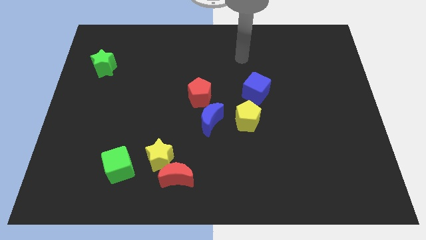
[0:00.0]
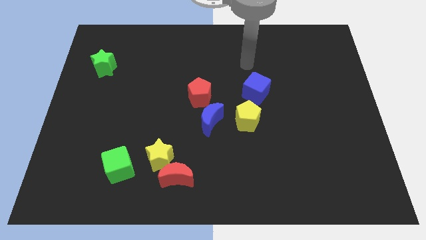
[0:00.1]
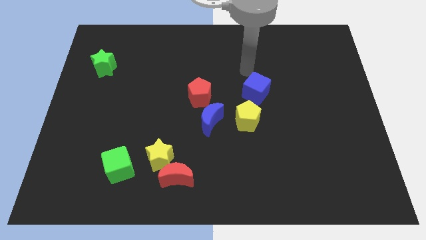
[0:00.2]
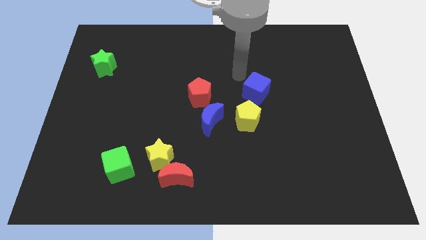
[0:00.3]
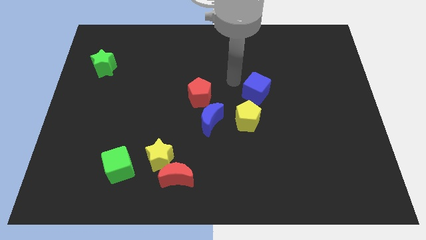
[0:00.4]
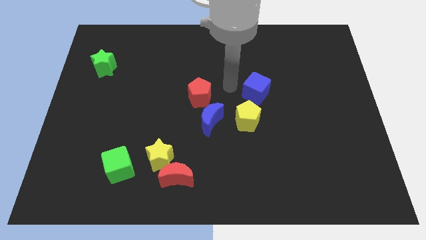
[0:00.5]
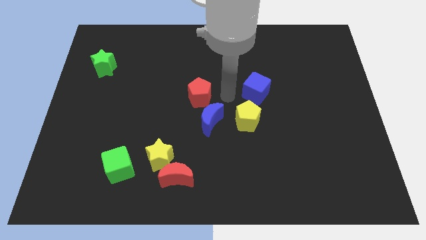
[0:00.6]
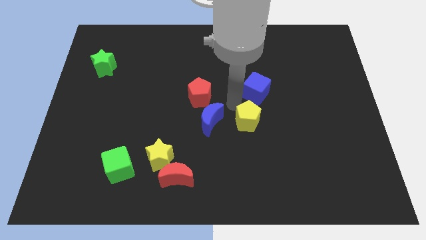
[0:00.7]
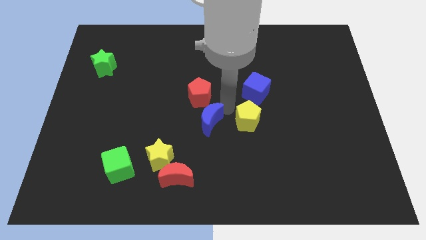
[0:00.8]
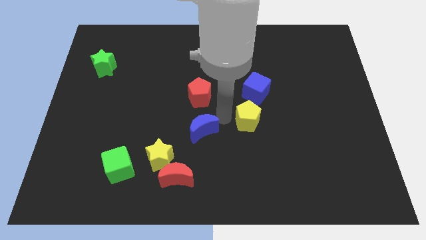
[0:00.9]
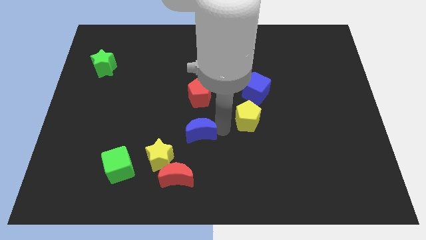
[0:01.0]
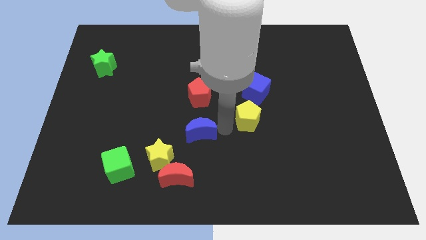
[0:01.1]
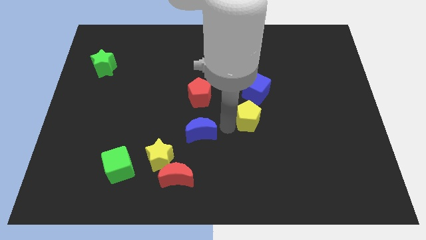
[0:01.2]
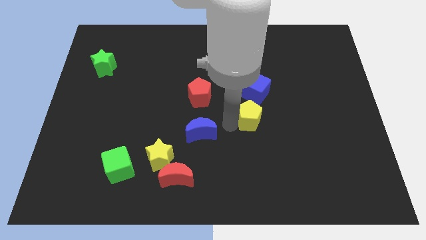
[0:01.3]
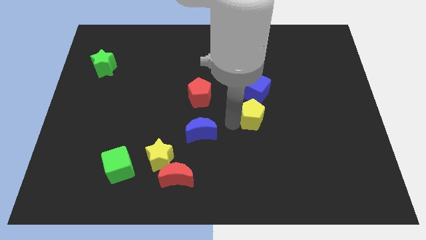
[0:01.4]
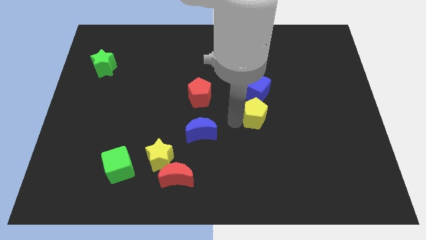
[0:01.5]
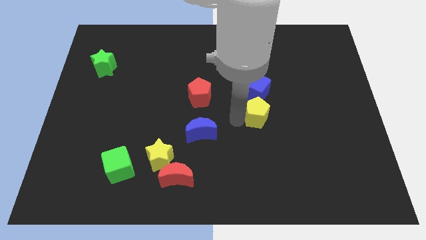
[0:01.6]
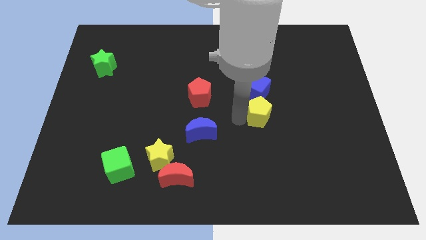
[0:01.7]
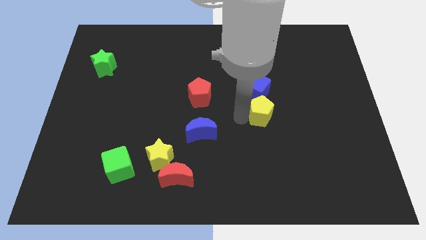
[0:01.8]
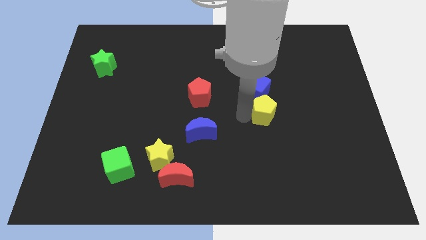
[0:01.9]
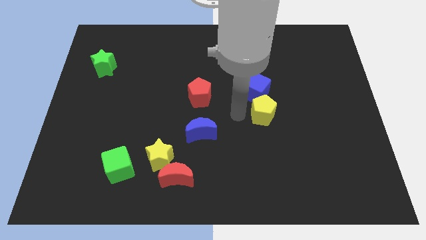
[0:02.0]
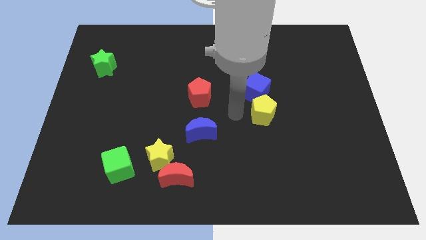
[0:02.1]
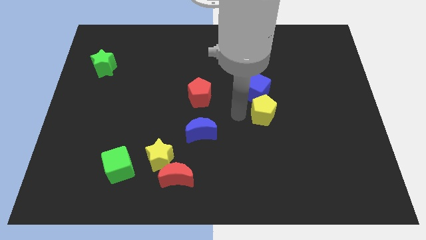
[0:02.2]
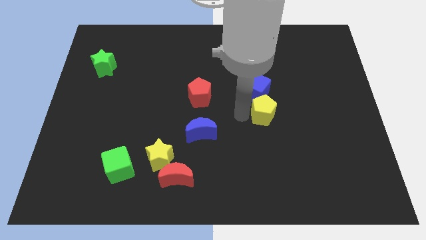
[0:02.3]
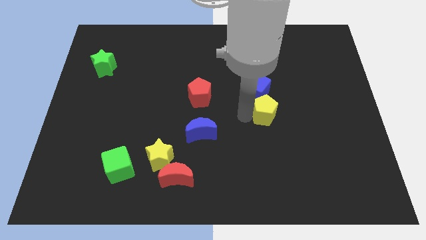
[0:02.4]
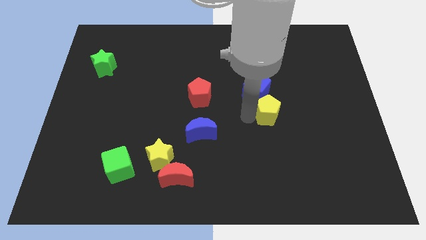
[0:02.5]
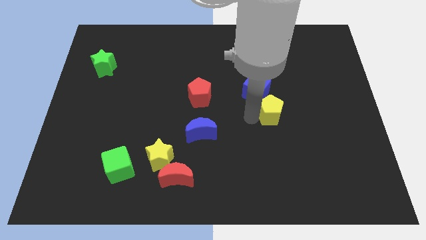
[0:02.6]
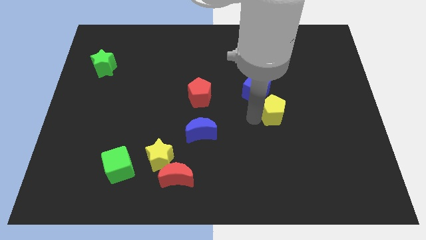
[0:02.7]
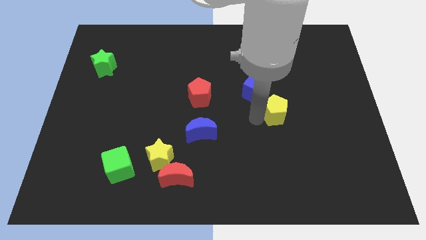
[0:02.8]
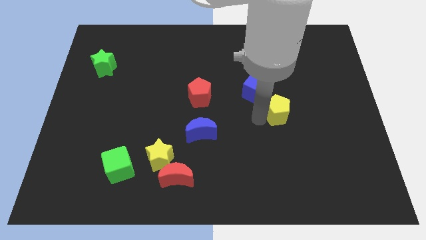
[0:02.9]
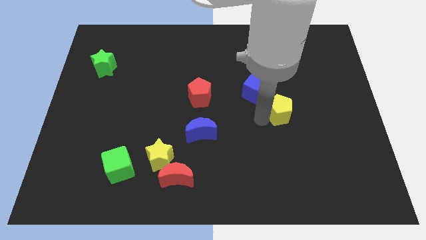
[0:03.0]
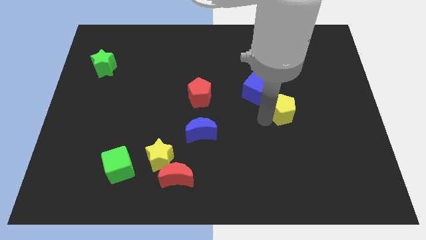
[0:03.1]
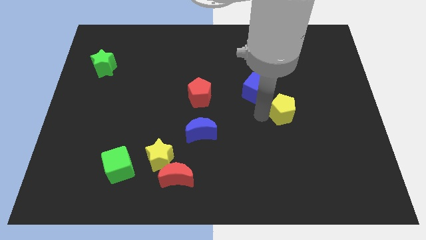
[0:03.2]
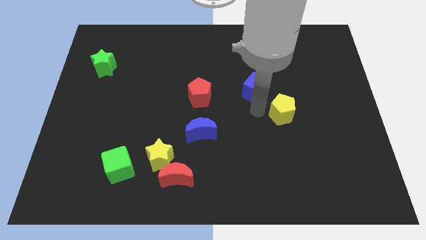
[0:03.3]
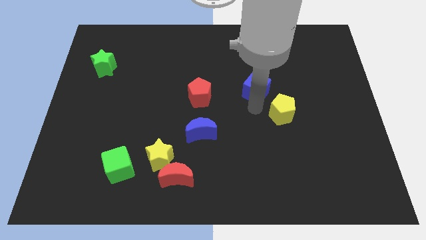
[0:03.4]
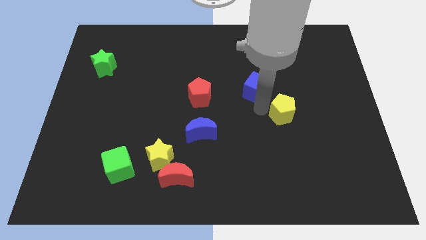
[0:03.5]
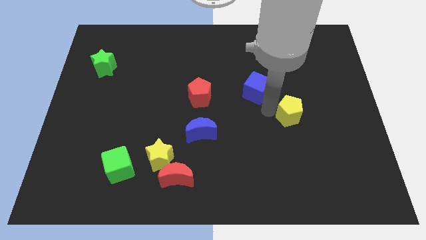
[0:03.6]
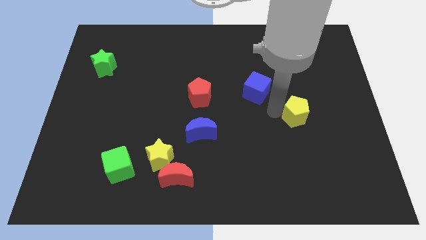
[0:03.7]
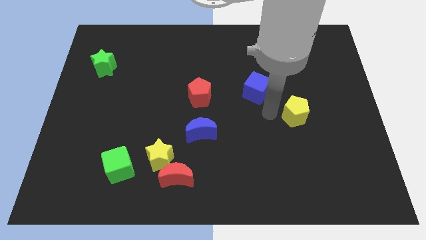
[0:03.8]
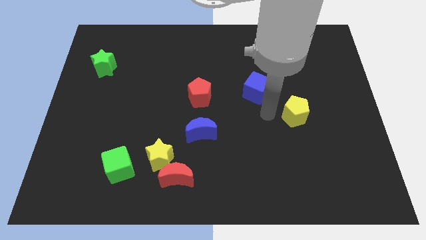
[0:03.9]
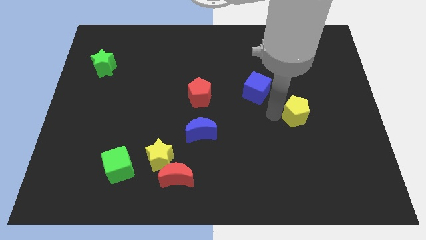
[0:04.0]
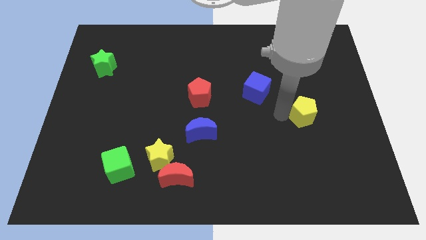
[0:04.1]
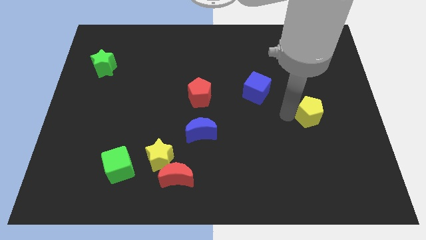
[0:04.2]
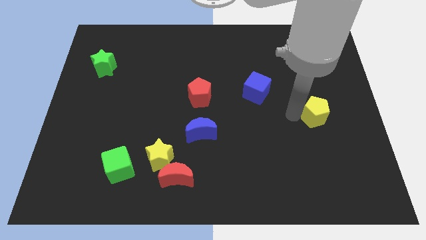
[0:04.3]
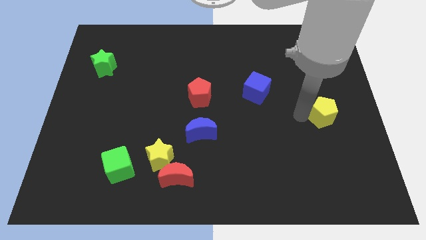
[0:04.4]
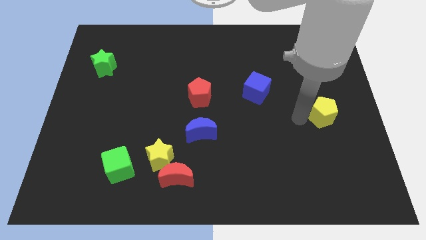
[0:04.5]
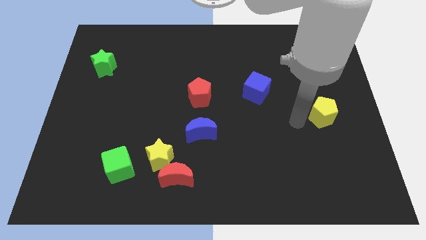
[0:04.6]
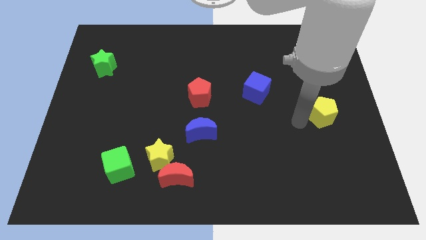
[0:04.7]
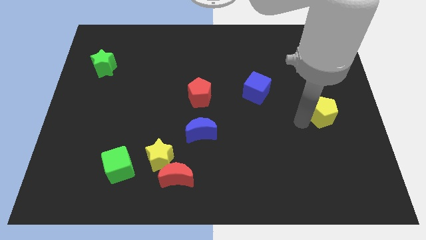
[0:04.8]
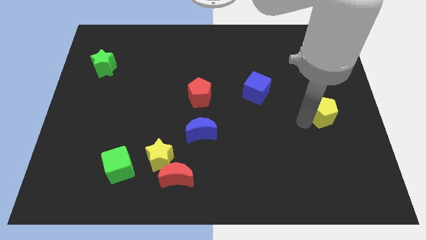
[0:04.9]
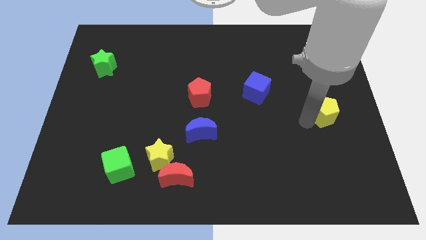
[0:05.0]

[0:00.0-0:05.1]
put the yellow pentagon to the center right
